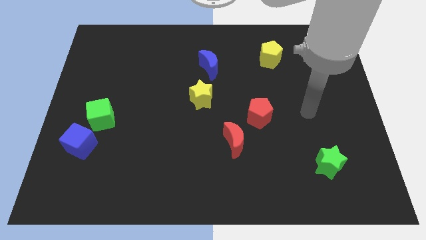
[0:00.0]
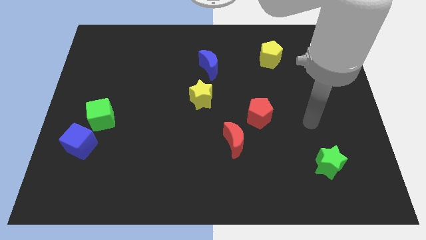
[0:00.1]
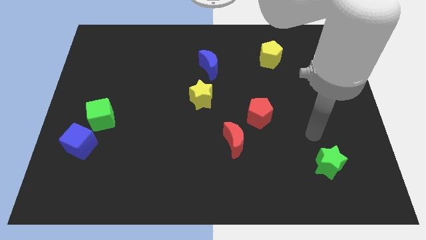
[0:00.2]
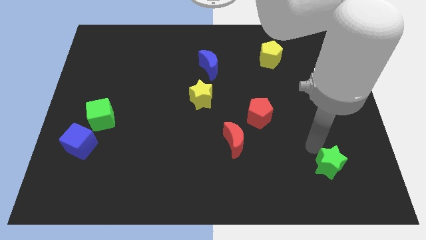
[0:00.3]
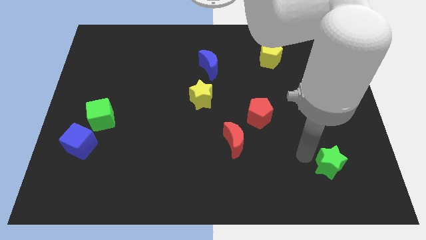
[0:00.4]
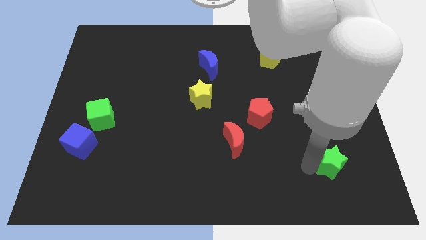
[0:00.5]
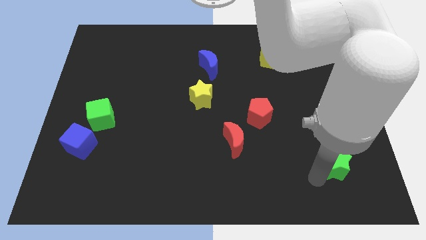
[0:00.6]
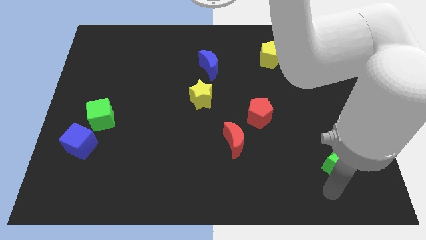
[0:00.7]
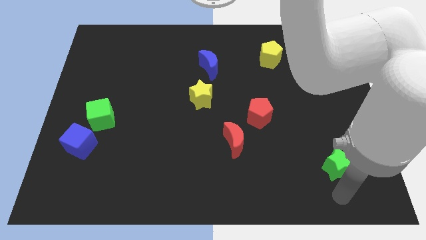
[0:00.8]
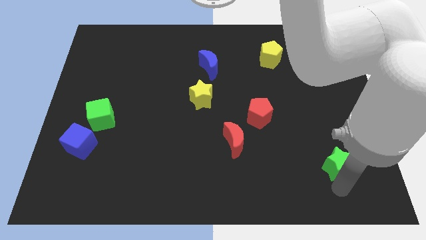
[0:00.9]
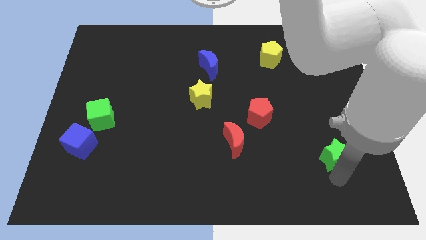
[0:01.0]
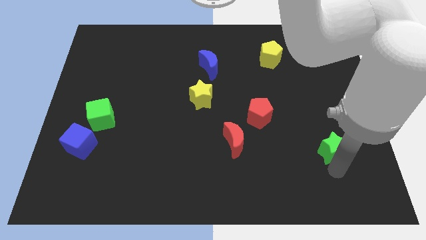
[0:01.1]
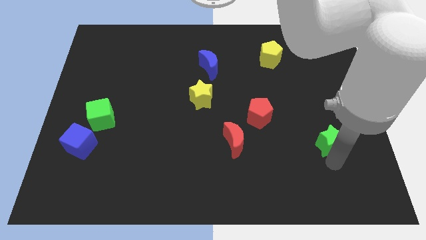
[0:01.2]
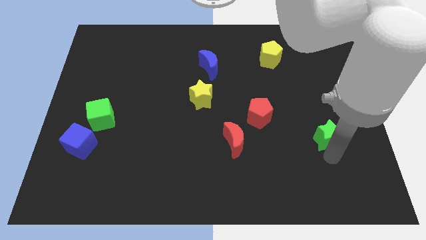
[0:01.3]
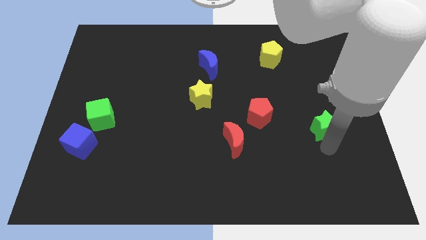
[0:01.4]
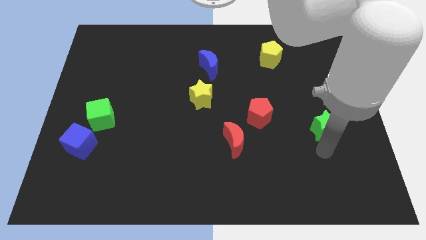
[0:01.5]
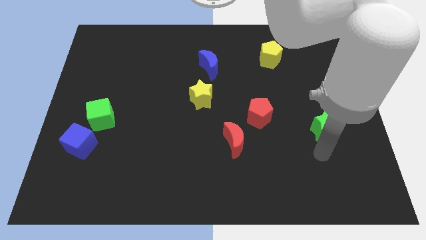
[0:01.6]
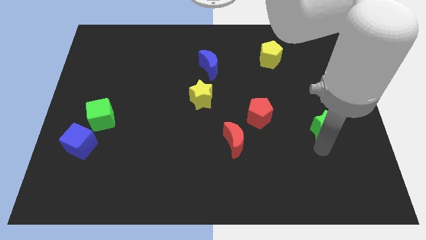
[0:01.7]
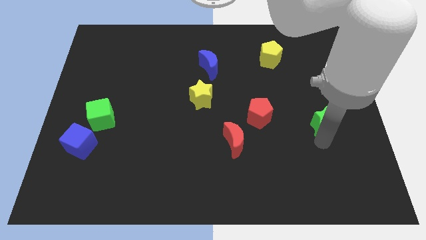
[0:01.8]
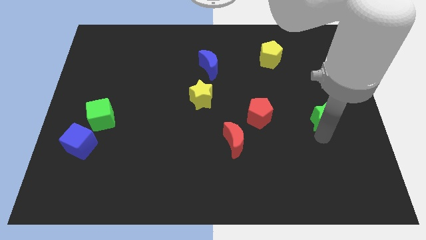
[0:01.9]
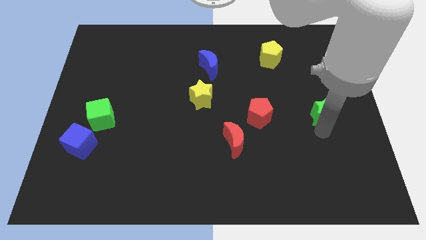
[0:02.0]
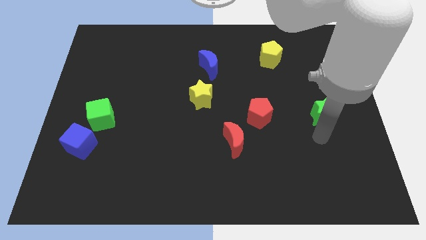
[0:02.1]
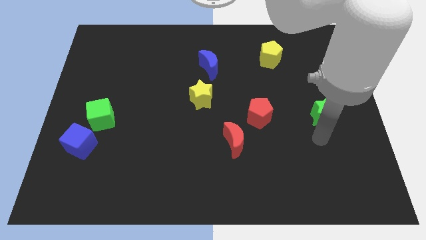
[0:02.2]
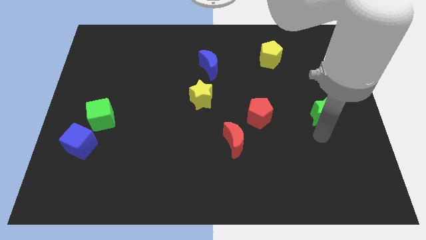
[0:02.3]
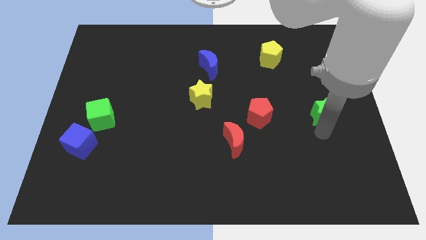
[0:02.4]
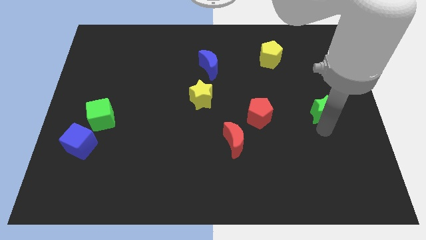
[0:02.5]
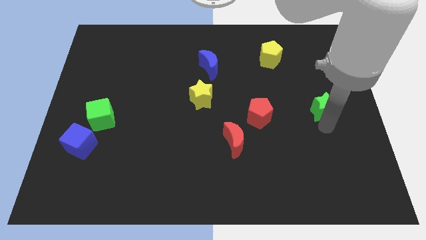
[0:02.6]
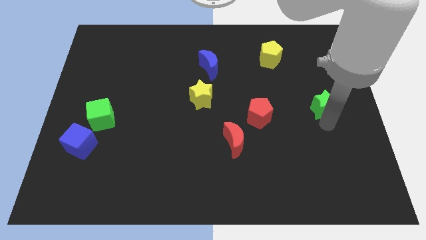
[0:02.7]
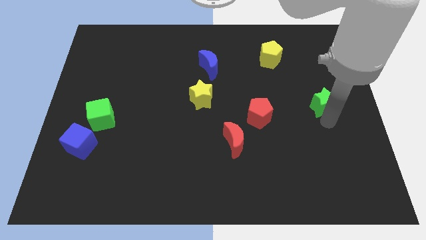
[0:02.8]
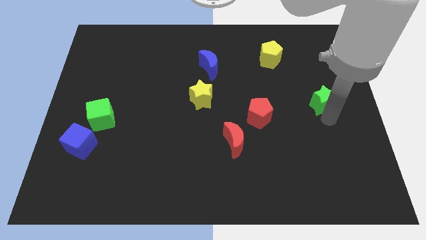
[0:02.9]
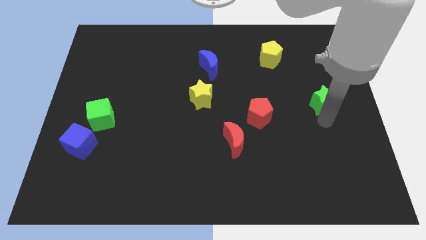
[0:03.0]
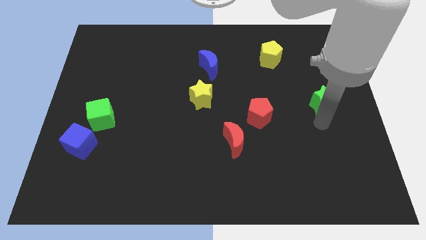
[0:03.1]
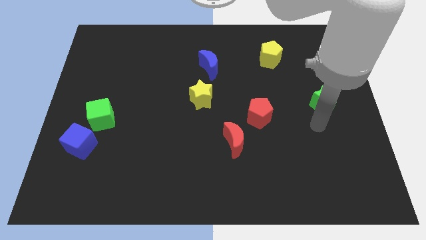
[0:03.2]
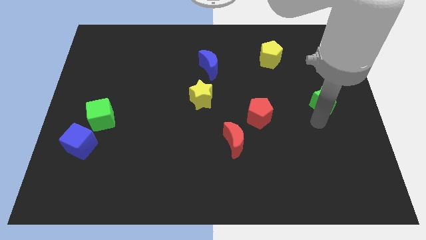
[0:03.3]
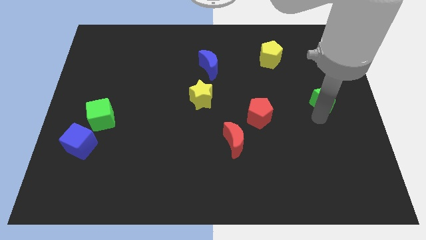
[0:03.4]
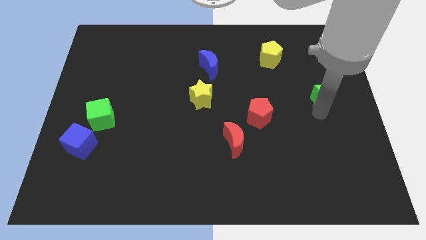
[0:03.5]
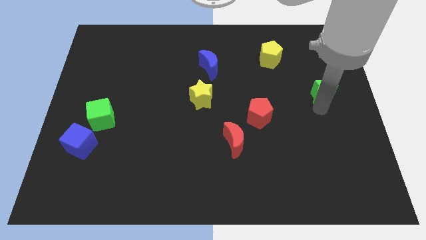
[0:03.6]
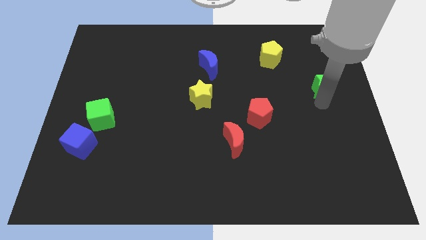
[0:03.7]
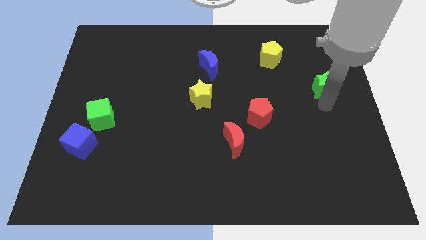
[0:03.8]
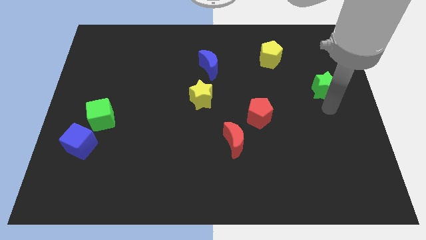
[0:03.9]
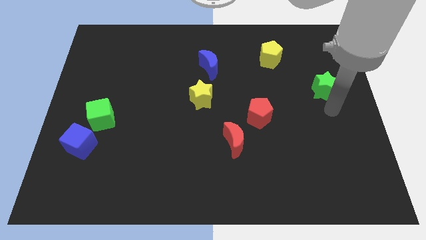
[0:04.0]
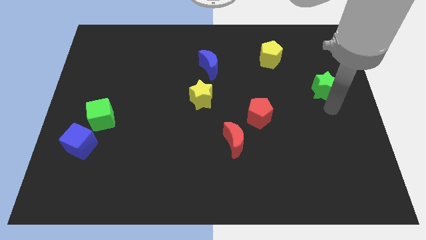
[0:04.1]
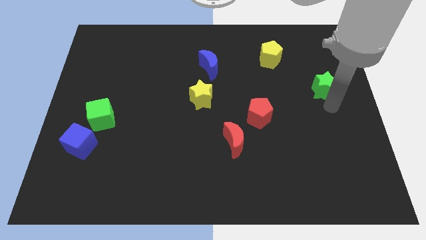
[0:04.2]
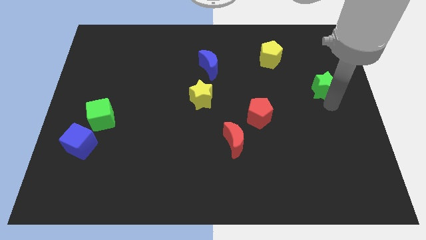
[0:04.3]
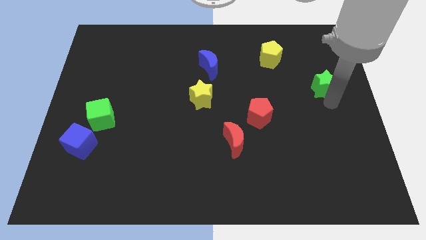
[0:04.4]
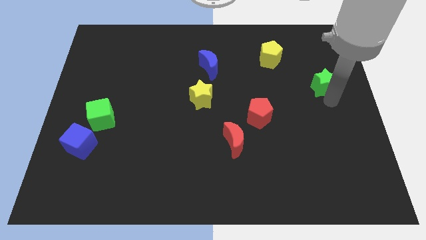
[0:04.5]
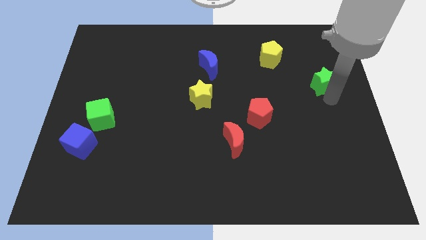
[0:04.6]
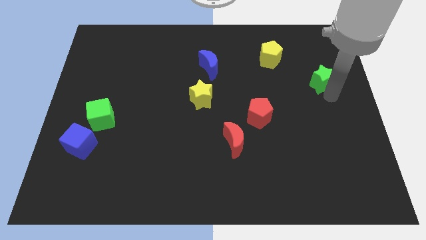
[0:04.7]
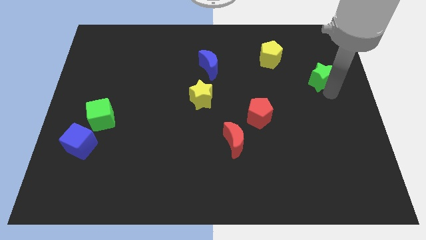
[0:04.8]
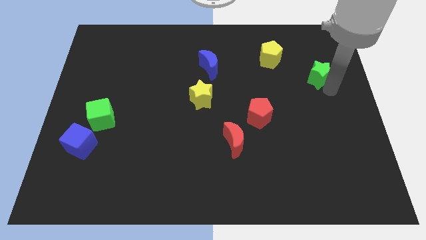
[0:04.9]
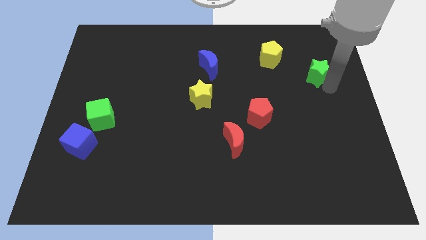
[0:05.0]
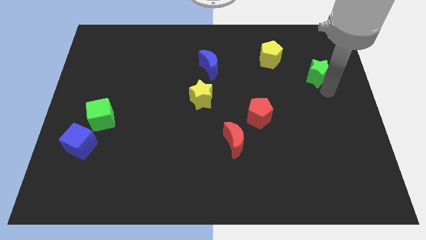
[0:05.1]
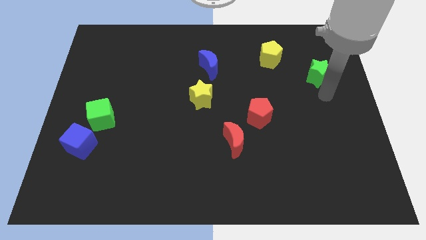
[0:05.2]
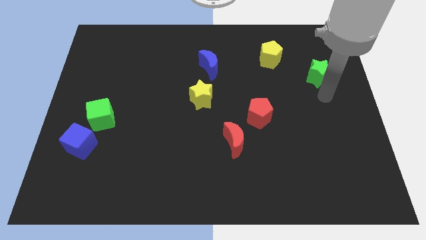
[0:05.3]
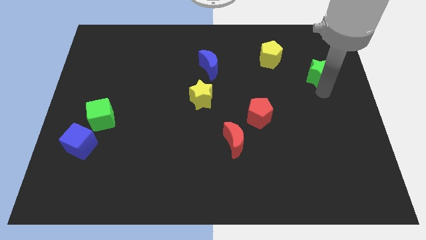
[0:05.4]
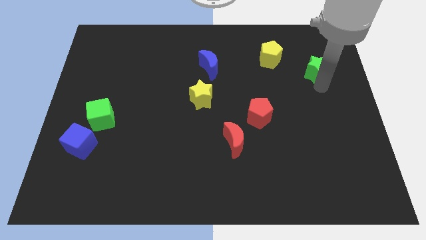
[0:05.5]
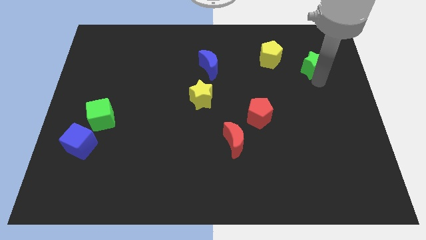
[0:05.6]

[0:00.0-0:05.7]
move the green star to the right side of the yellow pentagon

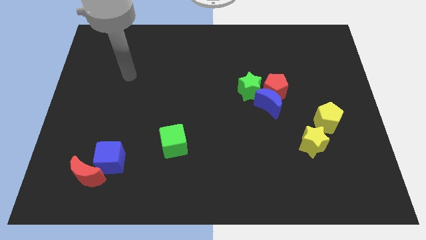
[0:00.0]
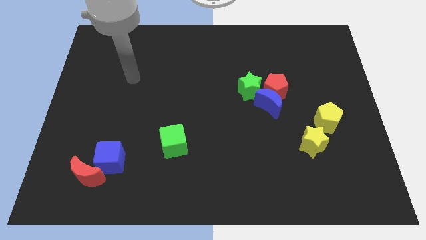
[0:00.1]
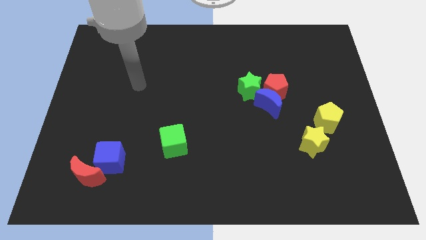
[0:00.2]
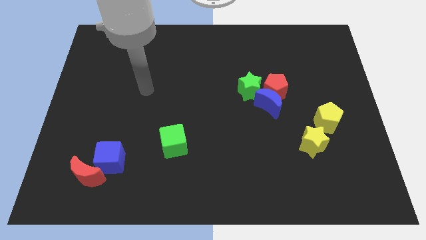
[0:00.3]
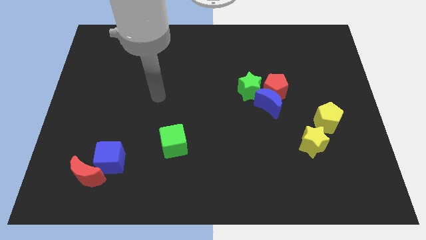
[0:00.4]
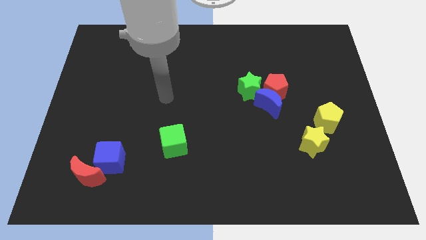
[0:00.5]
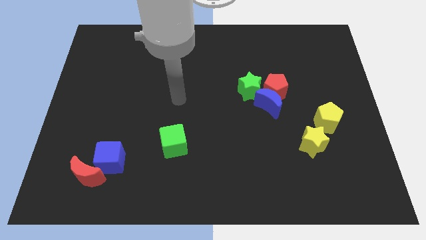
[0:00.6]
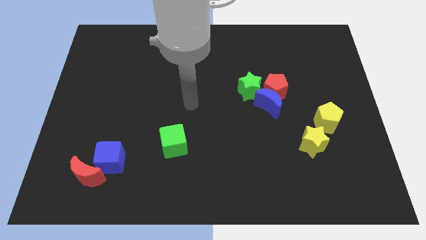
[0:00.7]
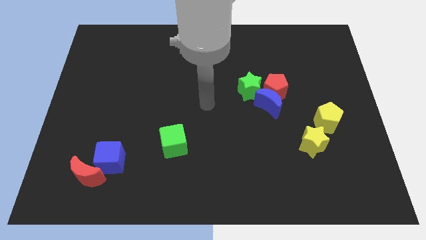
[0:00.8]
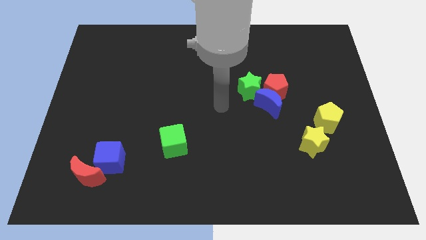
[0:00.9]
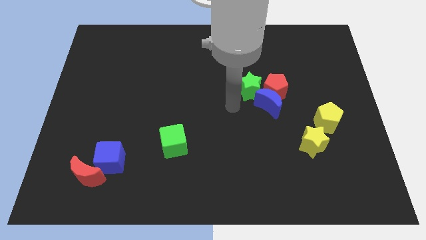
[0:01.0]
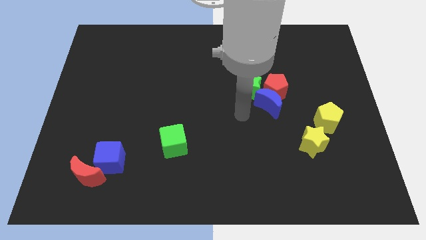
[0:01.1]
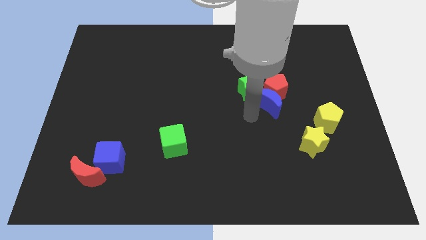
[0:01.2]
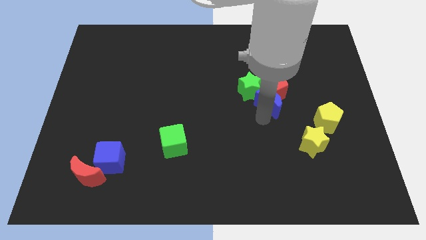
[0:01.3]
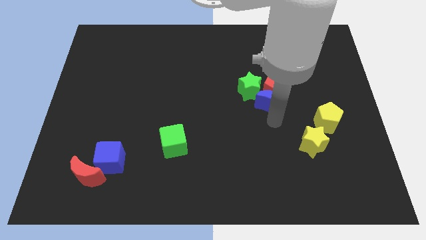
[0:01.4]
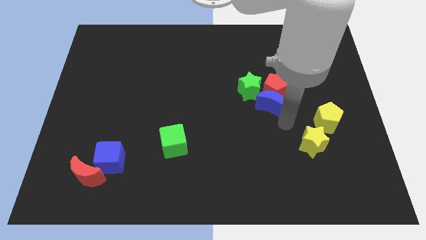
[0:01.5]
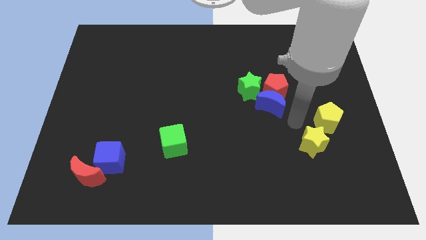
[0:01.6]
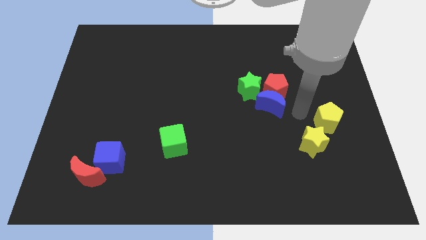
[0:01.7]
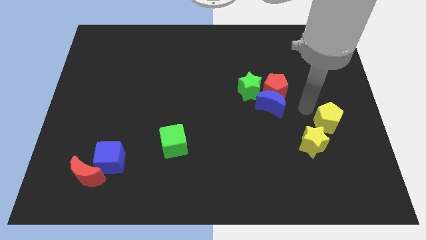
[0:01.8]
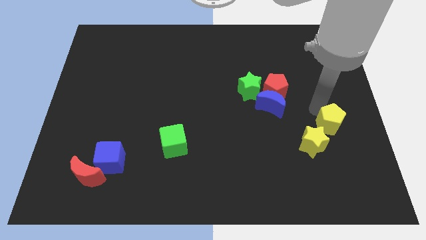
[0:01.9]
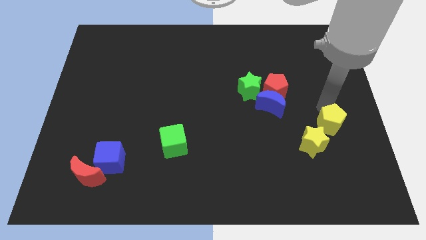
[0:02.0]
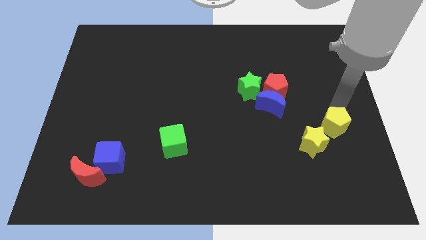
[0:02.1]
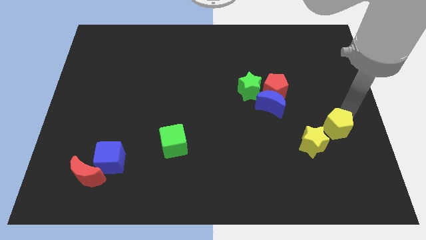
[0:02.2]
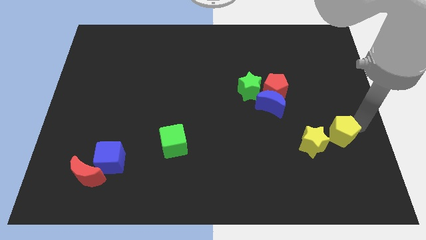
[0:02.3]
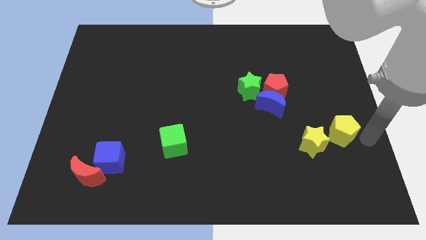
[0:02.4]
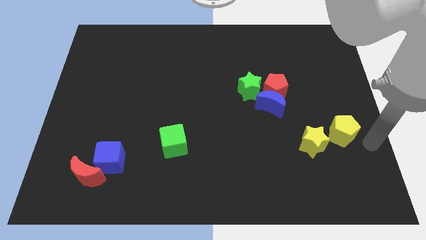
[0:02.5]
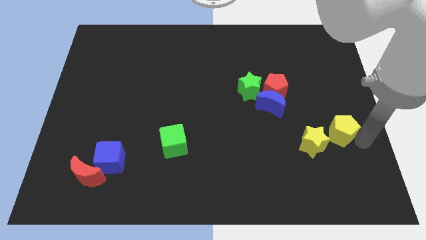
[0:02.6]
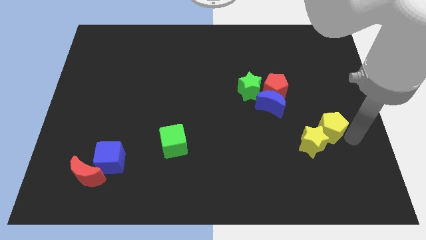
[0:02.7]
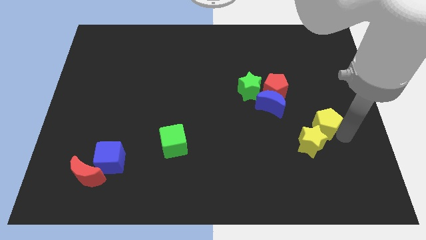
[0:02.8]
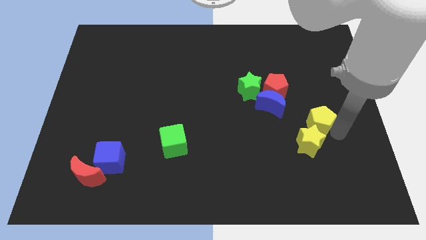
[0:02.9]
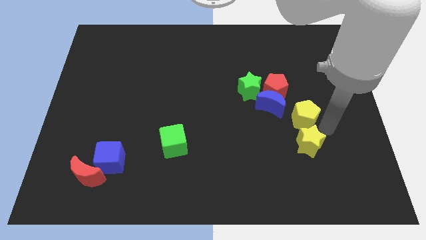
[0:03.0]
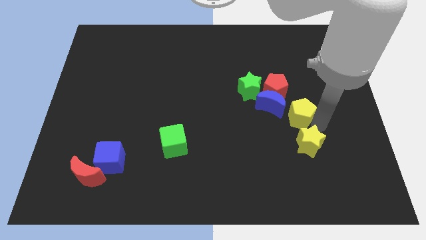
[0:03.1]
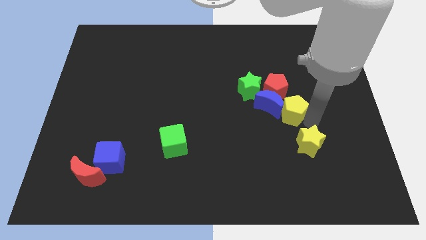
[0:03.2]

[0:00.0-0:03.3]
put the yellow pentagon to the bottom right of the green star
